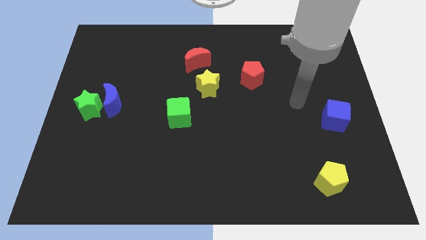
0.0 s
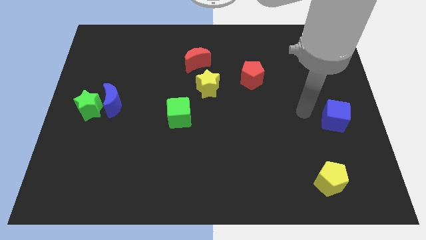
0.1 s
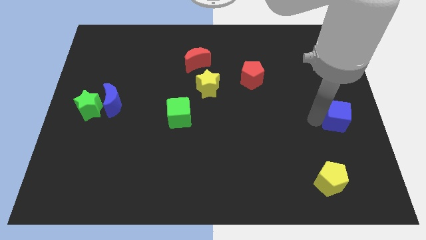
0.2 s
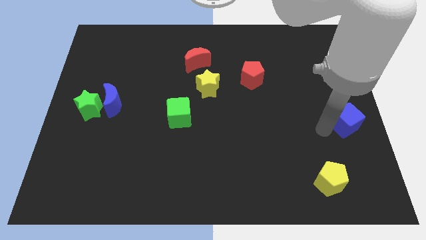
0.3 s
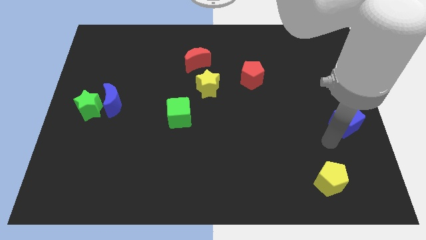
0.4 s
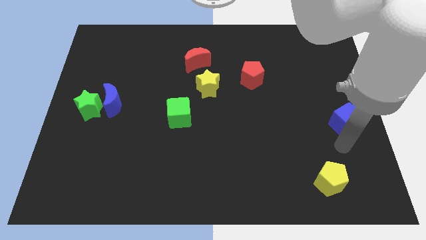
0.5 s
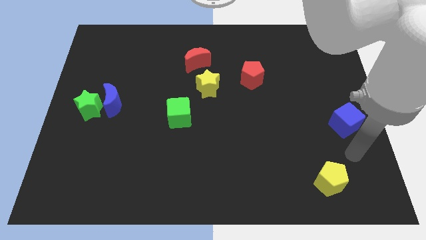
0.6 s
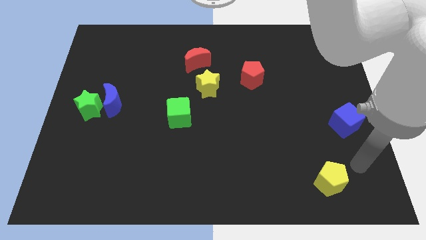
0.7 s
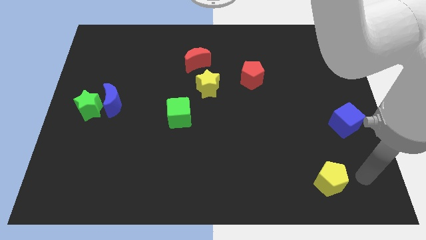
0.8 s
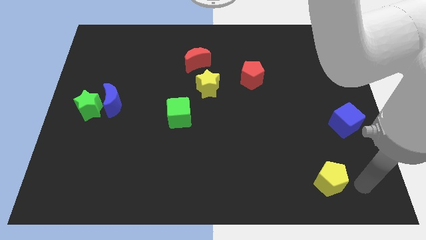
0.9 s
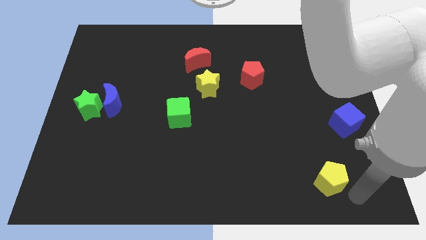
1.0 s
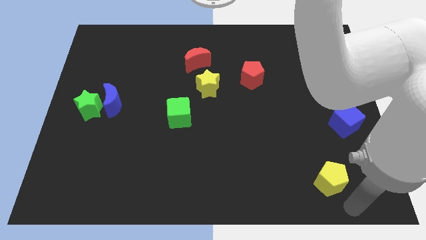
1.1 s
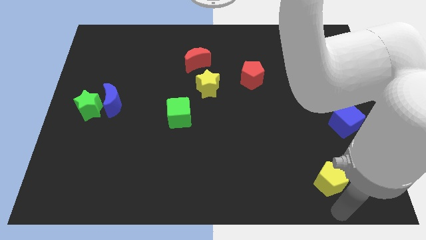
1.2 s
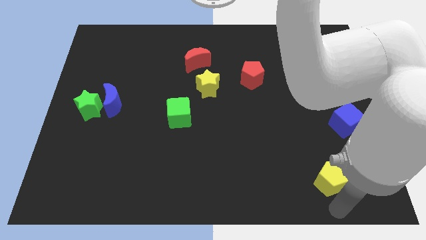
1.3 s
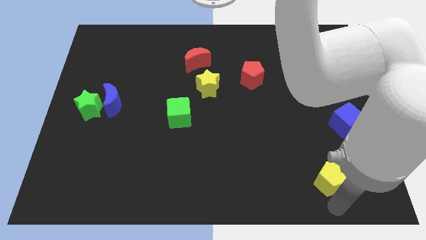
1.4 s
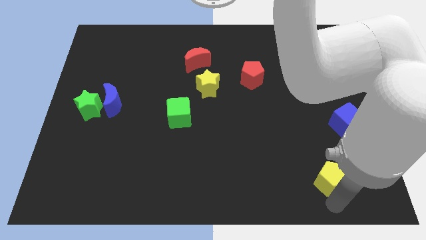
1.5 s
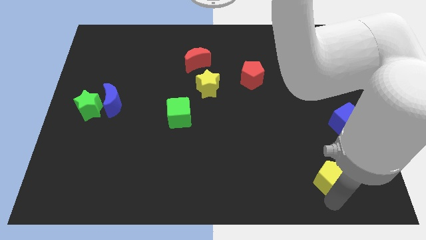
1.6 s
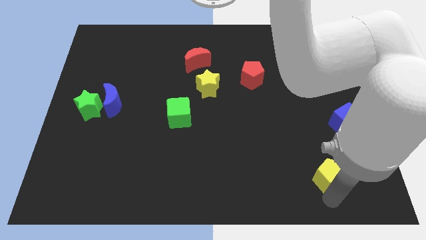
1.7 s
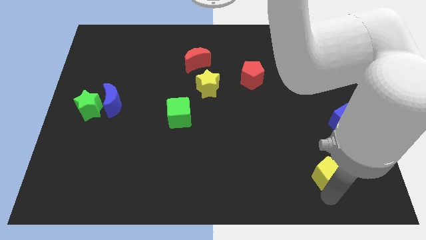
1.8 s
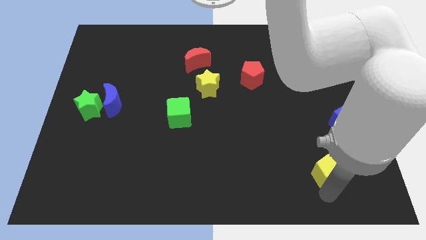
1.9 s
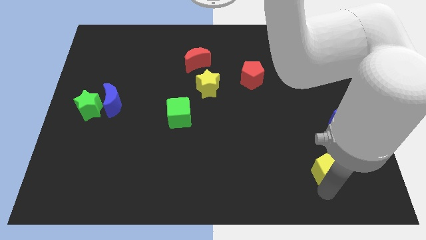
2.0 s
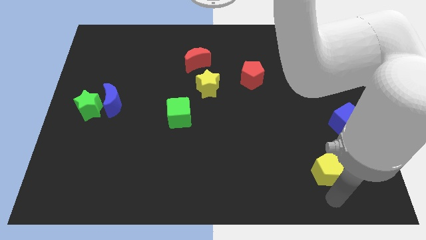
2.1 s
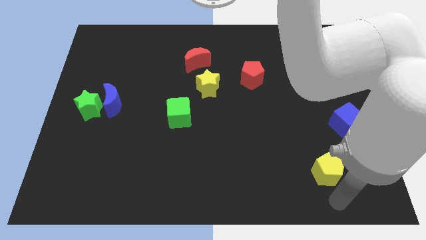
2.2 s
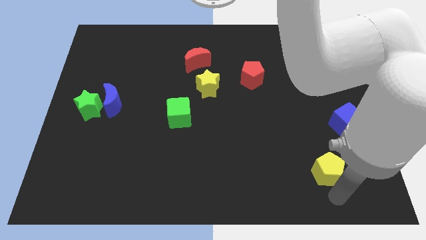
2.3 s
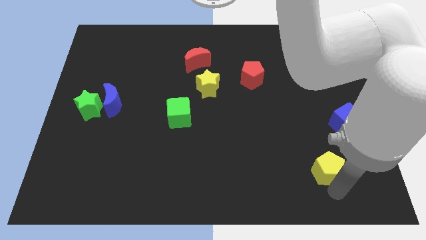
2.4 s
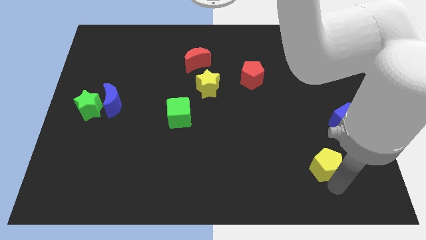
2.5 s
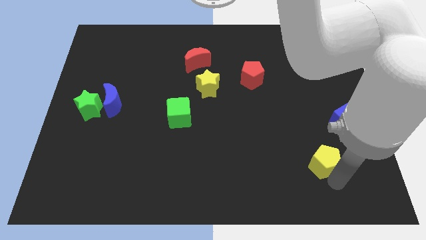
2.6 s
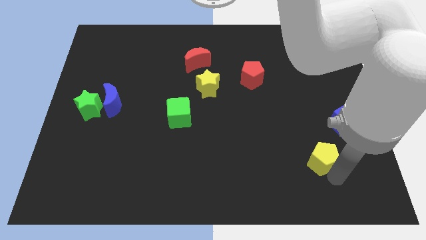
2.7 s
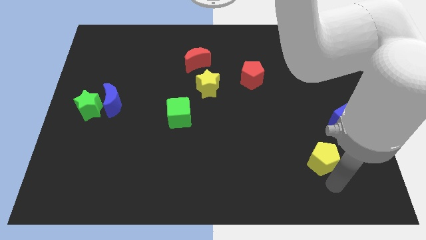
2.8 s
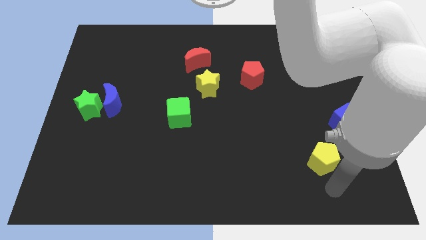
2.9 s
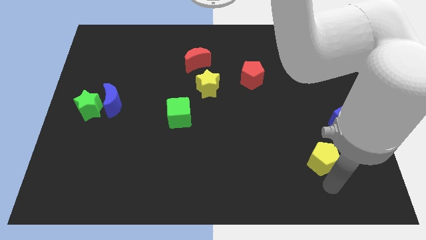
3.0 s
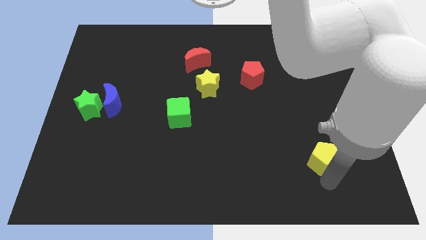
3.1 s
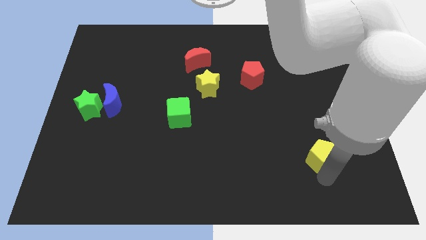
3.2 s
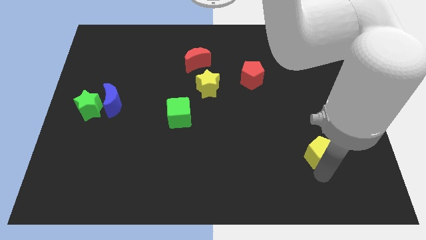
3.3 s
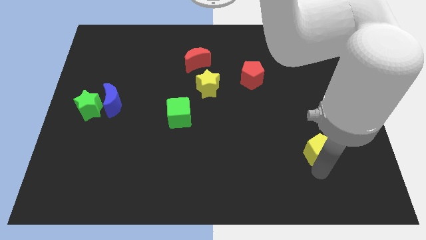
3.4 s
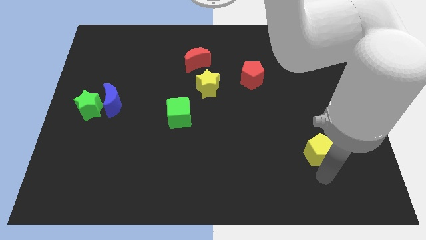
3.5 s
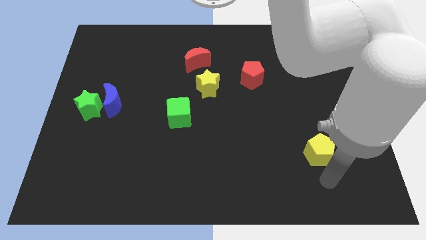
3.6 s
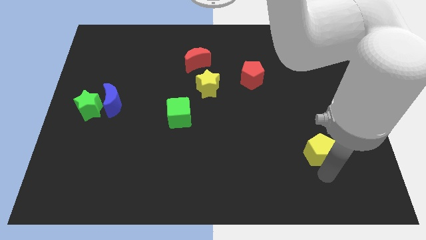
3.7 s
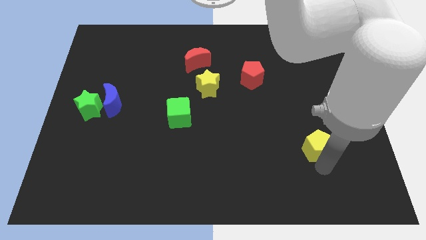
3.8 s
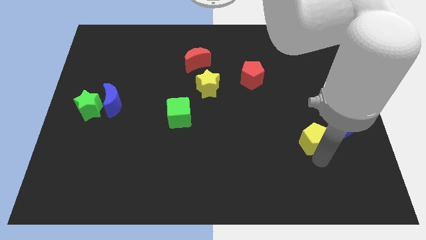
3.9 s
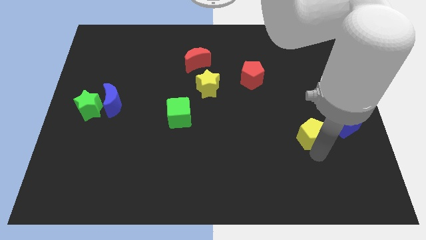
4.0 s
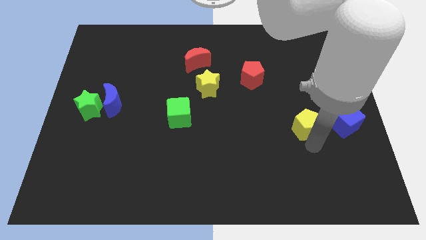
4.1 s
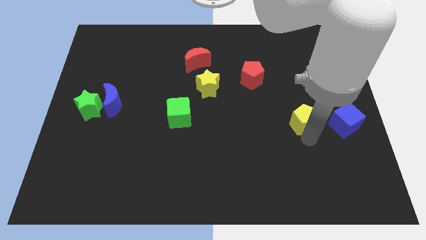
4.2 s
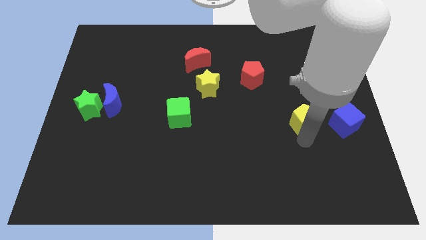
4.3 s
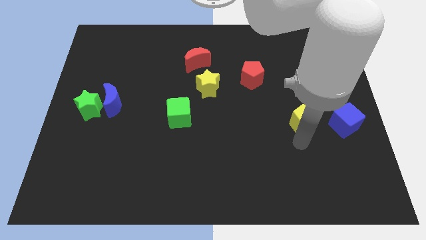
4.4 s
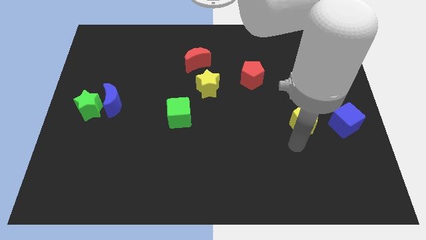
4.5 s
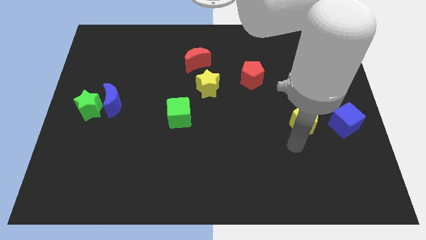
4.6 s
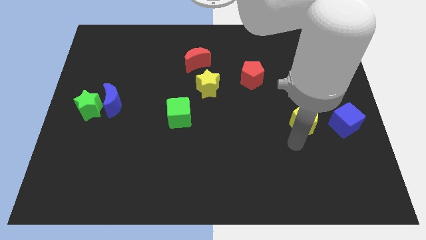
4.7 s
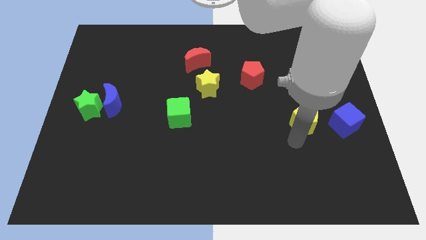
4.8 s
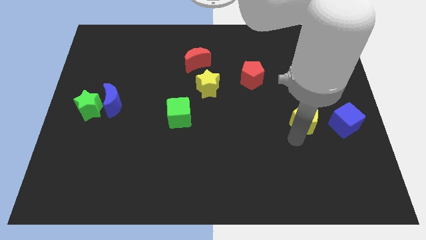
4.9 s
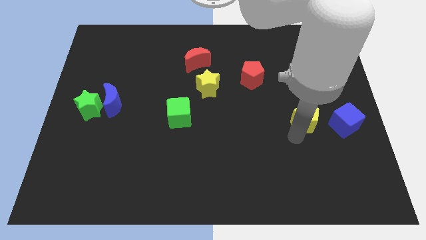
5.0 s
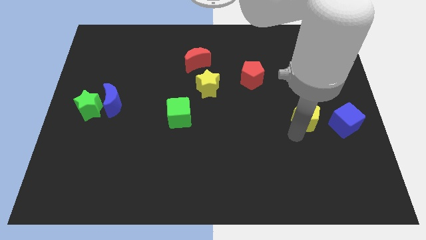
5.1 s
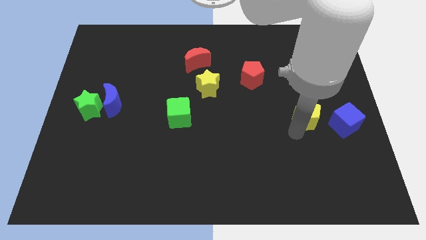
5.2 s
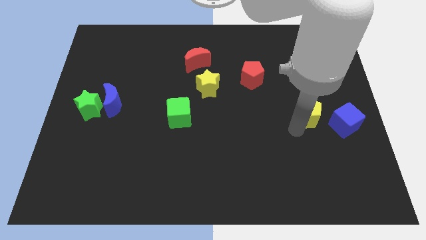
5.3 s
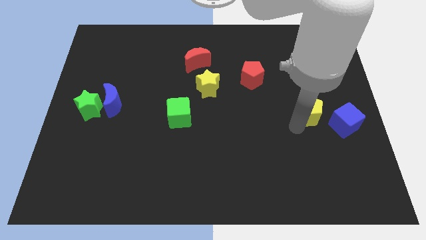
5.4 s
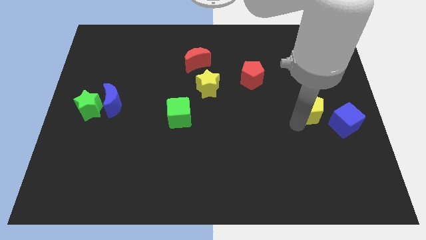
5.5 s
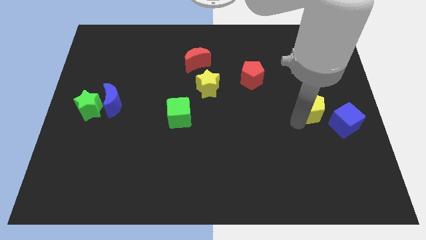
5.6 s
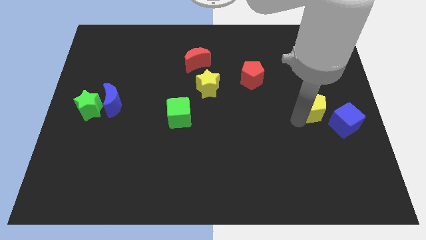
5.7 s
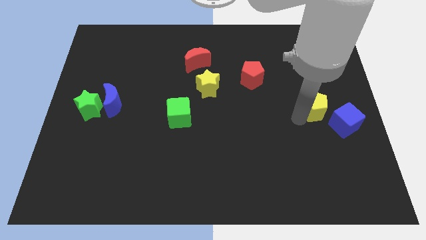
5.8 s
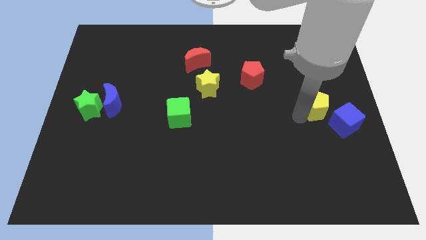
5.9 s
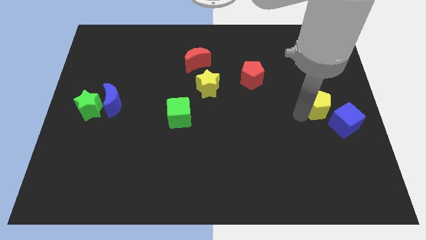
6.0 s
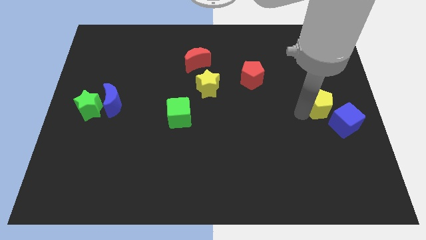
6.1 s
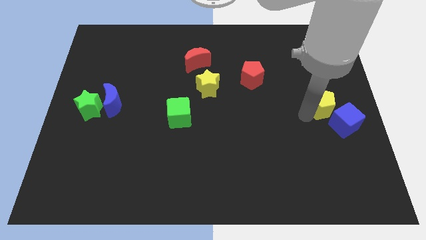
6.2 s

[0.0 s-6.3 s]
put the yellow pentagon to the top side of the blue cube

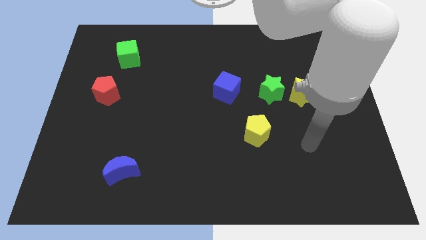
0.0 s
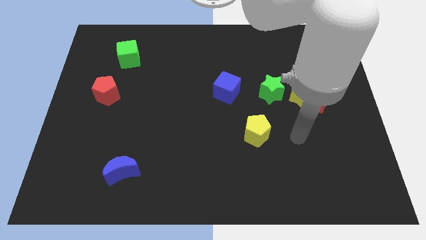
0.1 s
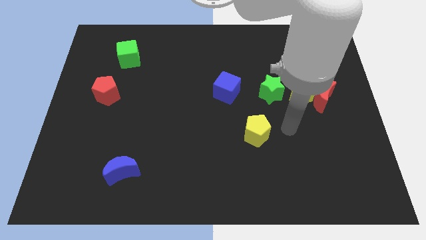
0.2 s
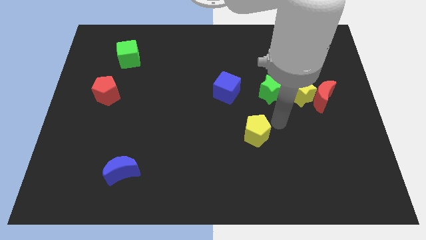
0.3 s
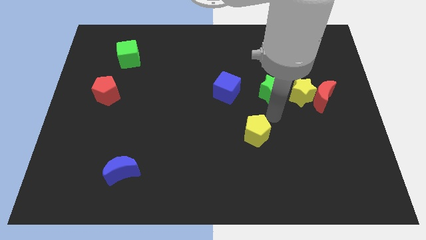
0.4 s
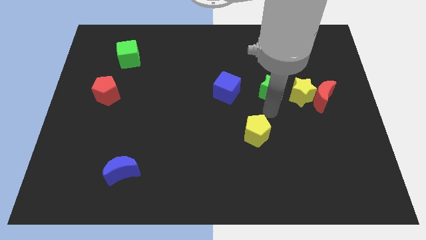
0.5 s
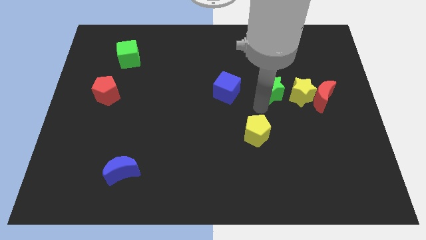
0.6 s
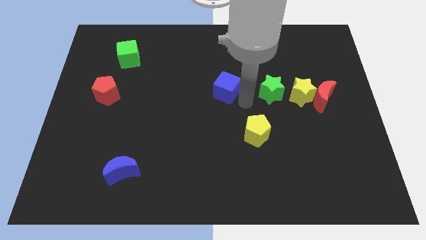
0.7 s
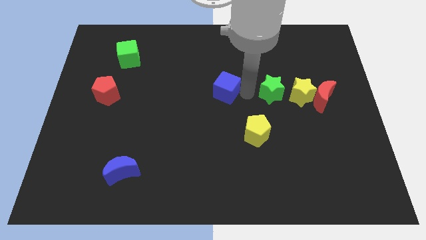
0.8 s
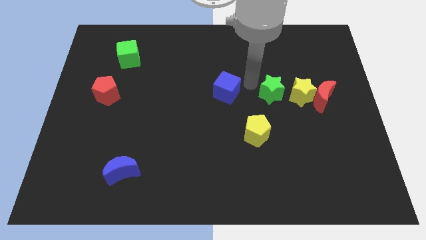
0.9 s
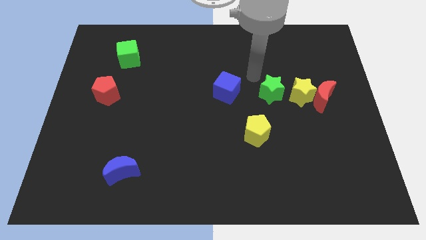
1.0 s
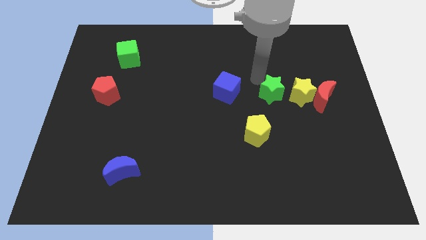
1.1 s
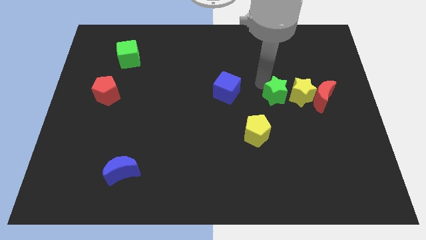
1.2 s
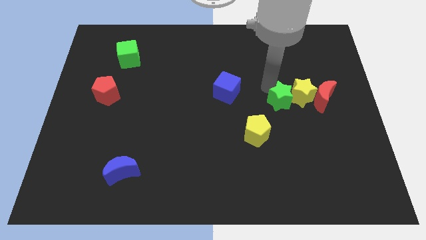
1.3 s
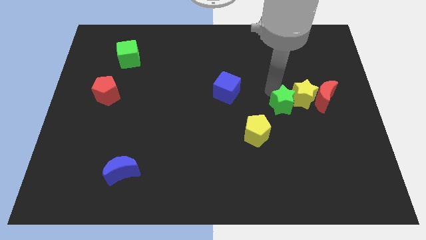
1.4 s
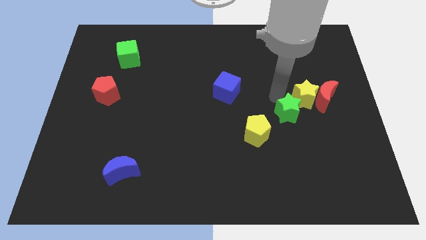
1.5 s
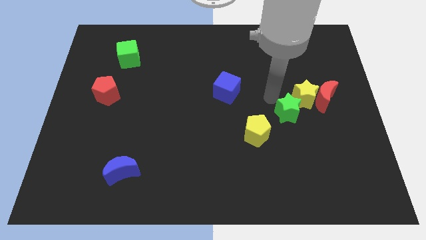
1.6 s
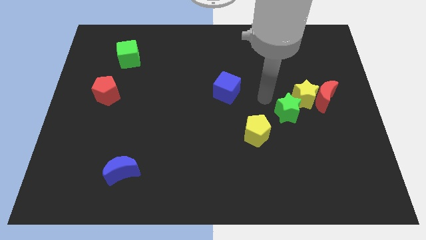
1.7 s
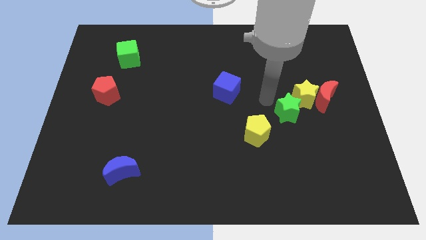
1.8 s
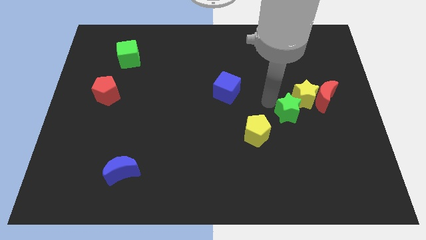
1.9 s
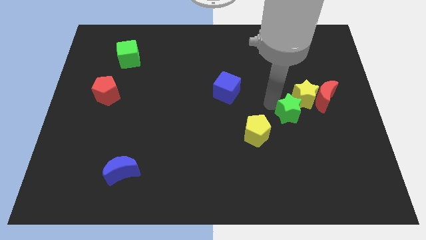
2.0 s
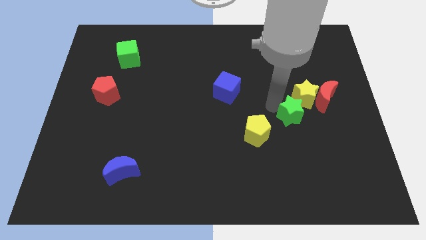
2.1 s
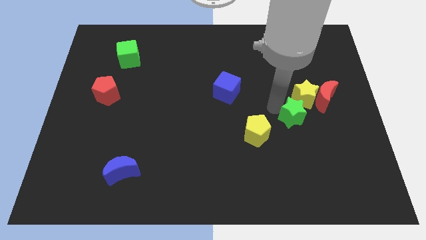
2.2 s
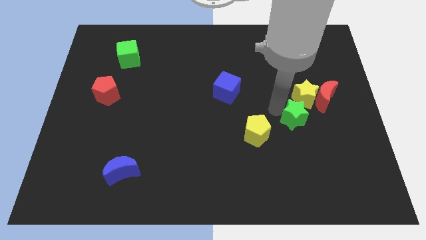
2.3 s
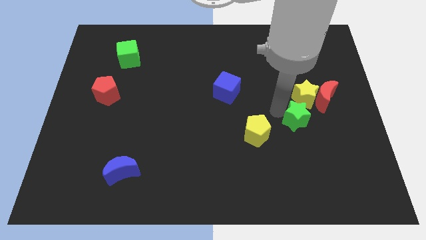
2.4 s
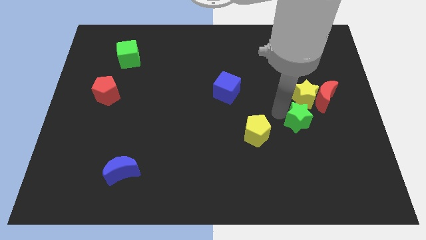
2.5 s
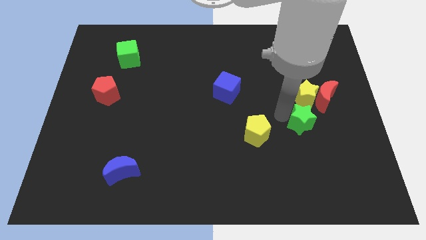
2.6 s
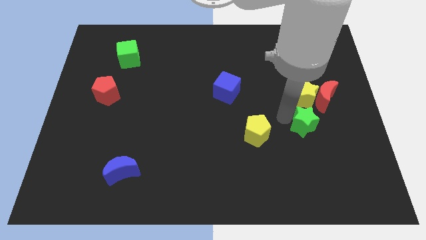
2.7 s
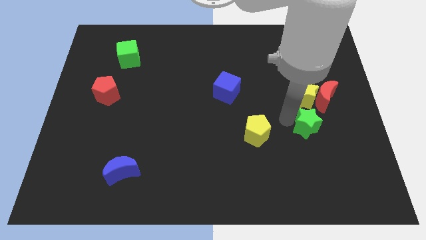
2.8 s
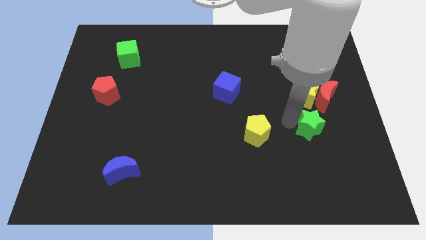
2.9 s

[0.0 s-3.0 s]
slide the green star below the red moon
